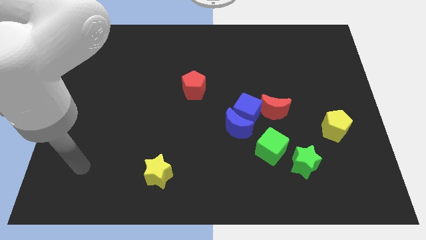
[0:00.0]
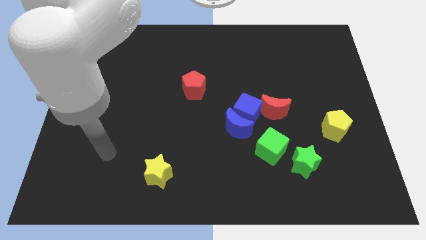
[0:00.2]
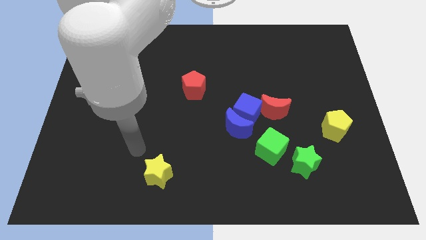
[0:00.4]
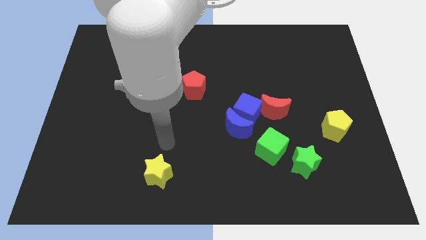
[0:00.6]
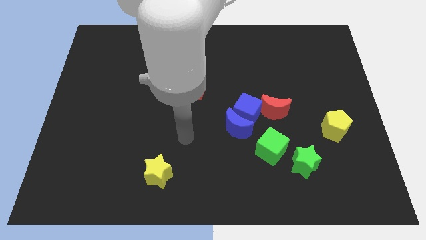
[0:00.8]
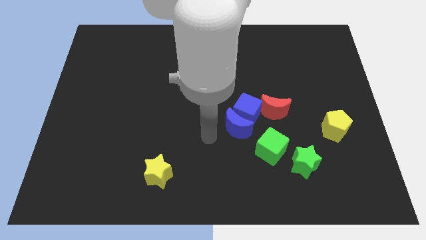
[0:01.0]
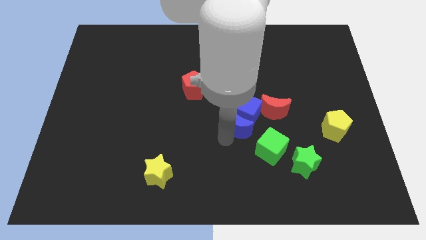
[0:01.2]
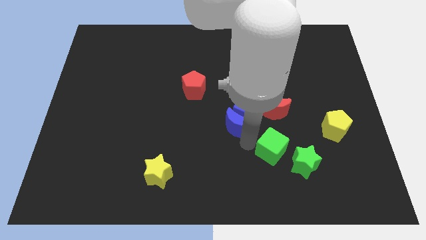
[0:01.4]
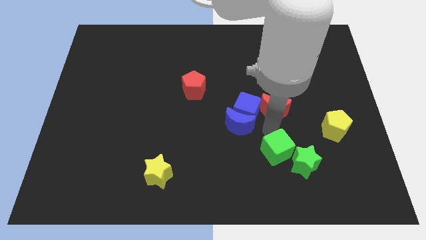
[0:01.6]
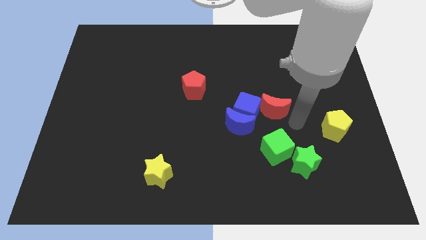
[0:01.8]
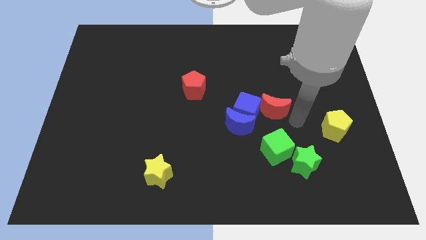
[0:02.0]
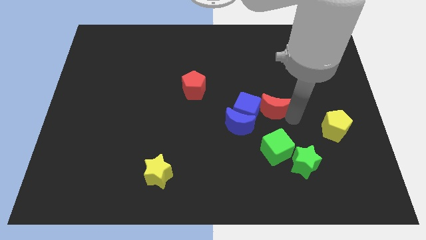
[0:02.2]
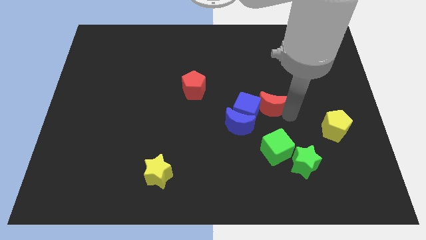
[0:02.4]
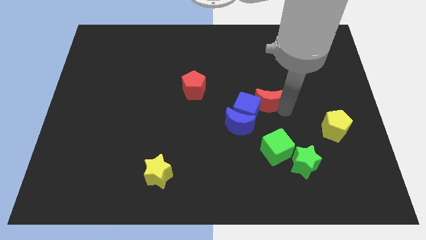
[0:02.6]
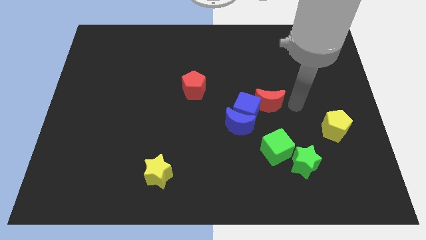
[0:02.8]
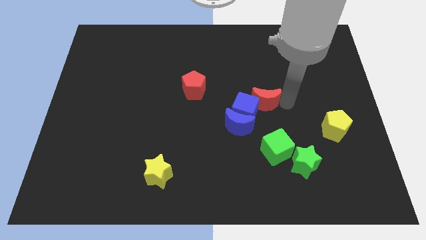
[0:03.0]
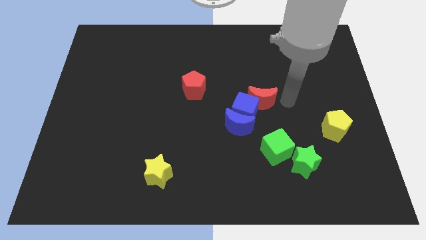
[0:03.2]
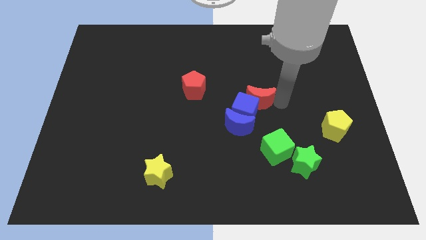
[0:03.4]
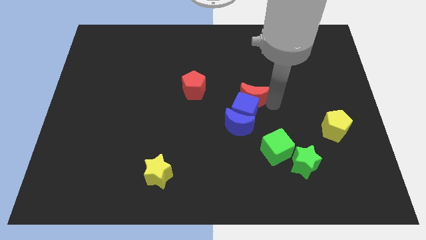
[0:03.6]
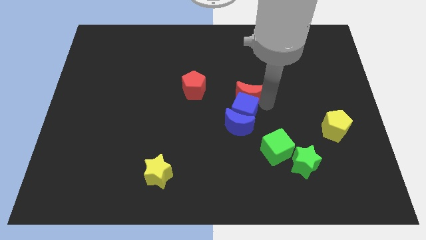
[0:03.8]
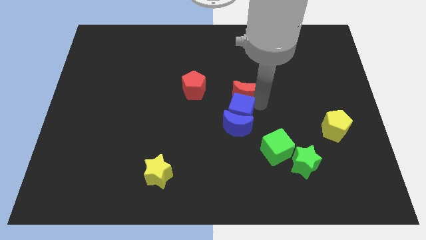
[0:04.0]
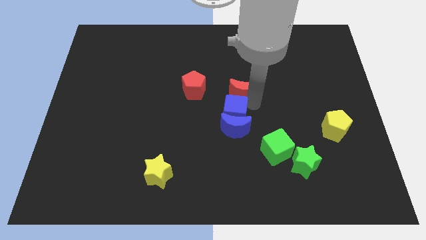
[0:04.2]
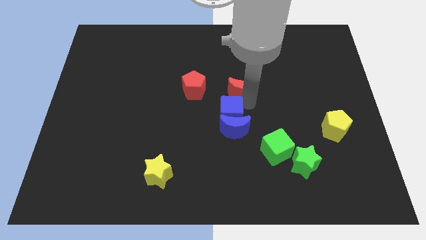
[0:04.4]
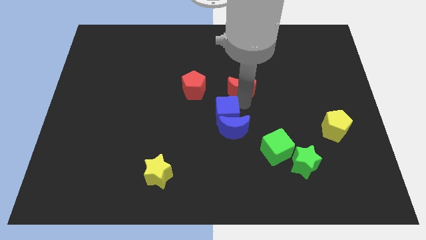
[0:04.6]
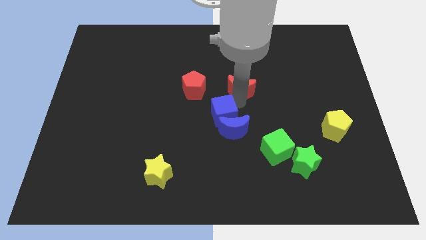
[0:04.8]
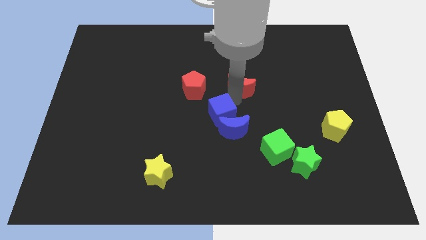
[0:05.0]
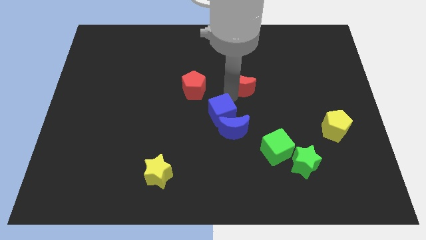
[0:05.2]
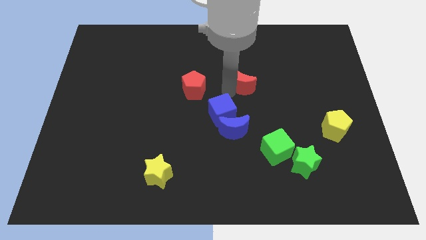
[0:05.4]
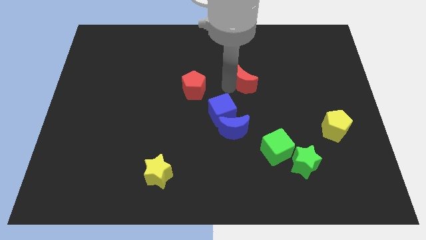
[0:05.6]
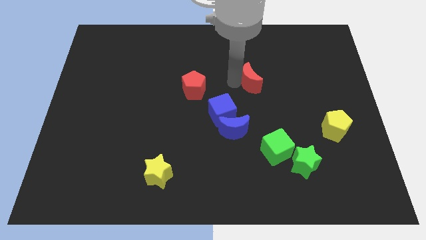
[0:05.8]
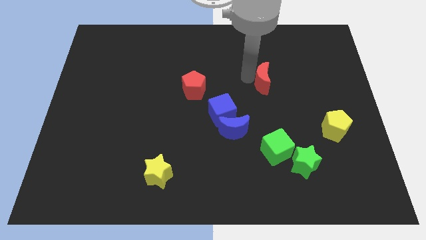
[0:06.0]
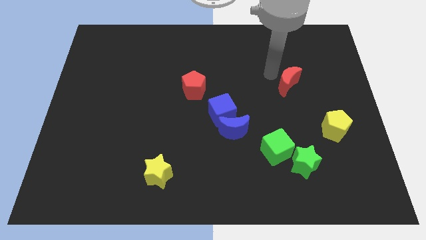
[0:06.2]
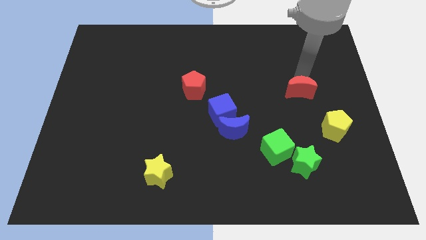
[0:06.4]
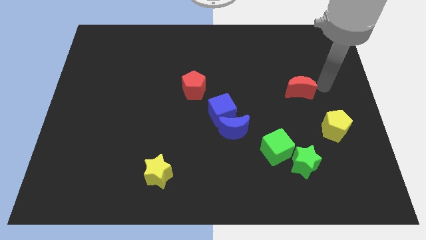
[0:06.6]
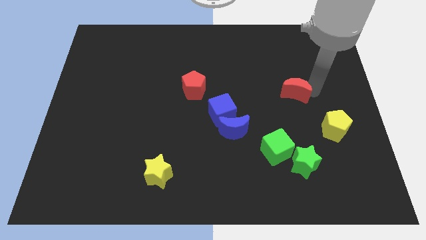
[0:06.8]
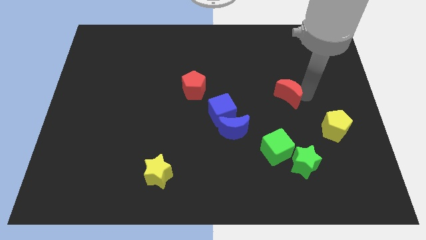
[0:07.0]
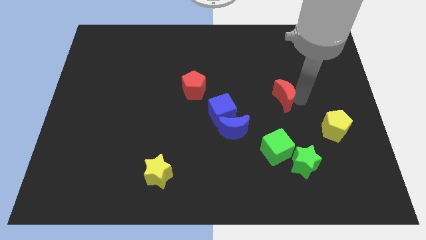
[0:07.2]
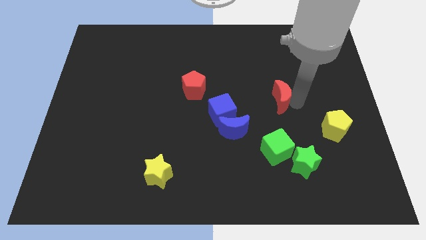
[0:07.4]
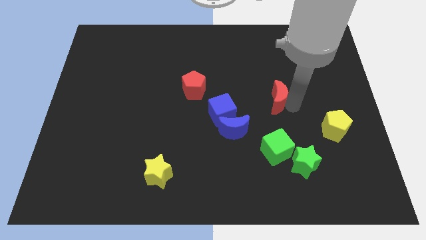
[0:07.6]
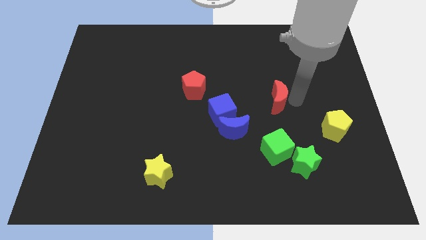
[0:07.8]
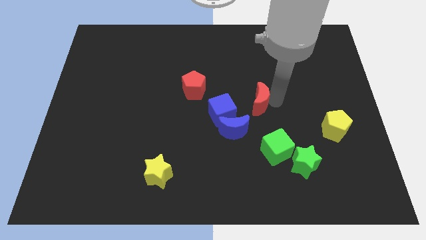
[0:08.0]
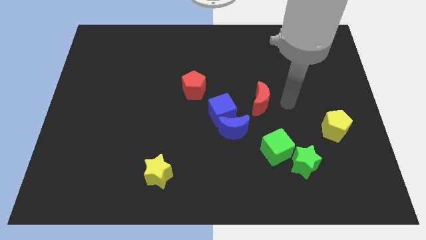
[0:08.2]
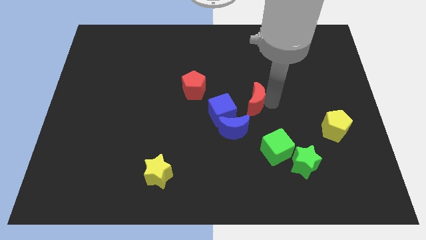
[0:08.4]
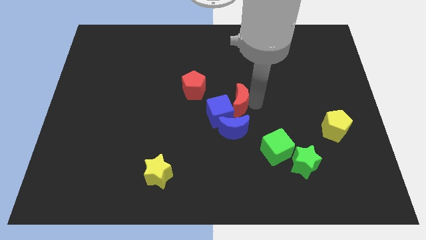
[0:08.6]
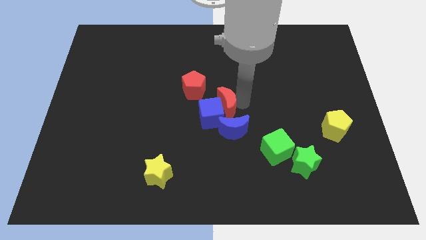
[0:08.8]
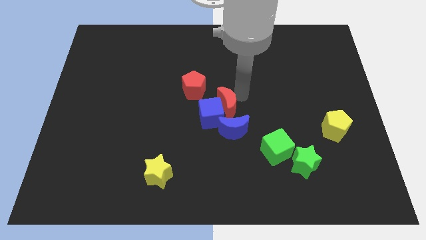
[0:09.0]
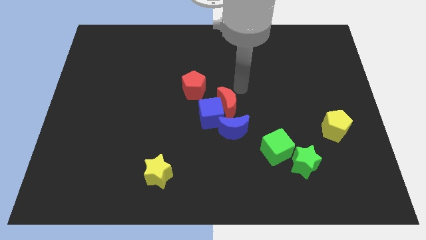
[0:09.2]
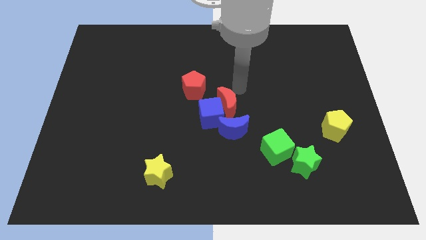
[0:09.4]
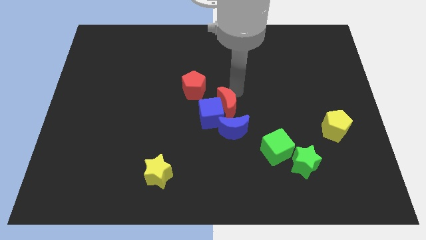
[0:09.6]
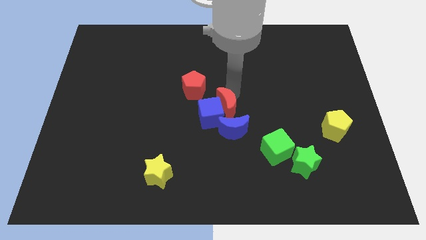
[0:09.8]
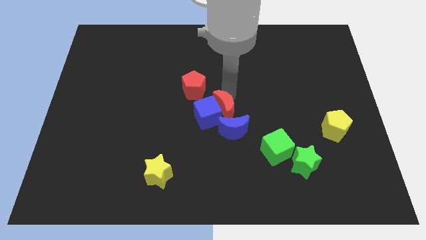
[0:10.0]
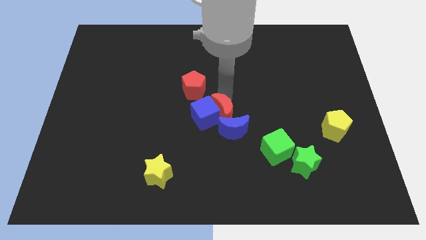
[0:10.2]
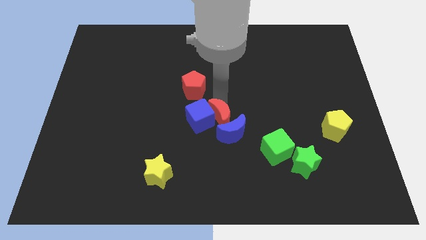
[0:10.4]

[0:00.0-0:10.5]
slide the red moon down and then to the left a little

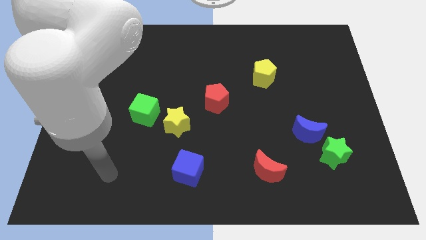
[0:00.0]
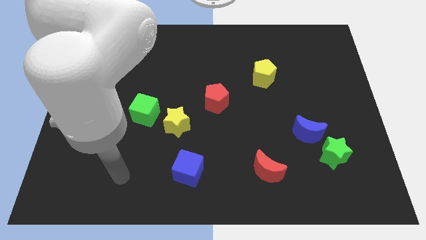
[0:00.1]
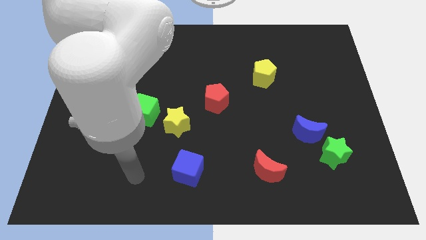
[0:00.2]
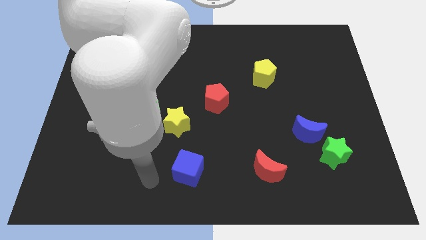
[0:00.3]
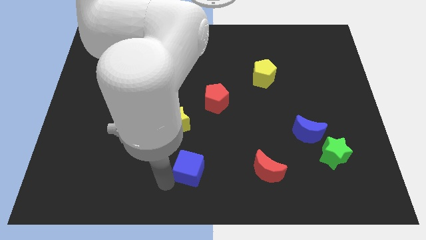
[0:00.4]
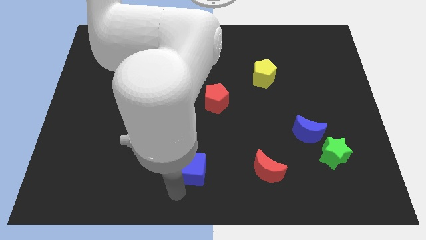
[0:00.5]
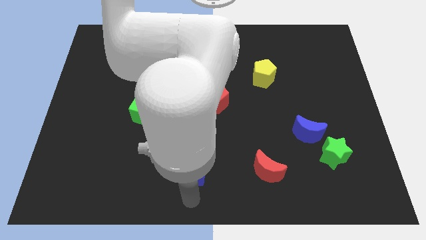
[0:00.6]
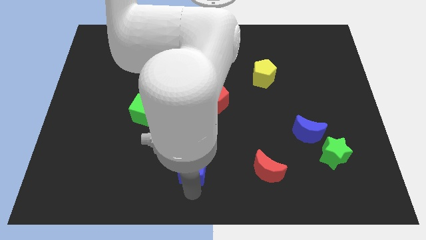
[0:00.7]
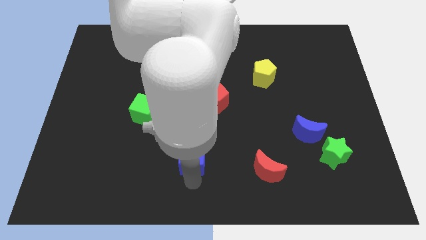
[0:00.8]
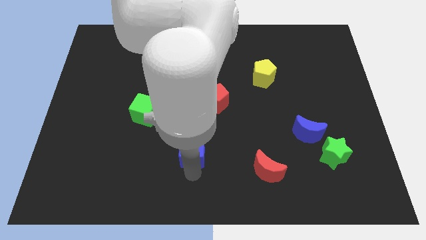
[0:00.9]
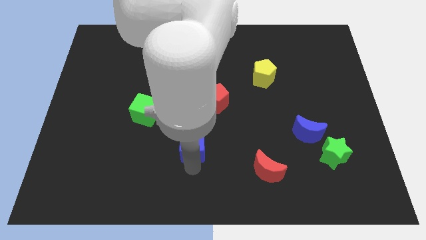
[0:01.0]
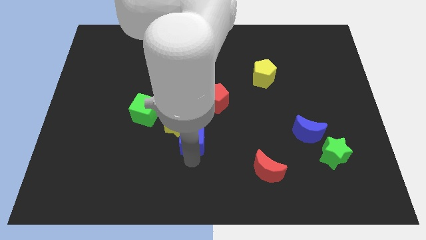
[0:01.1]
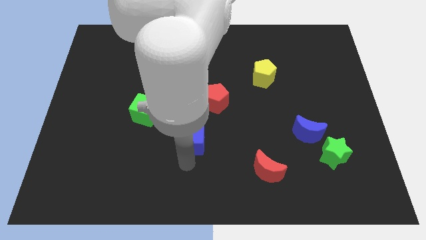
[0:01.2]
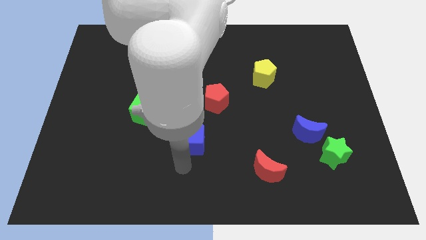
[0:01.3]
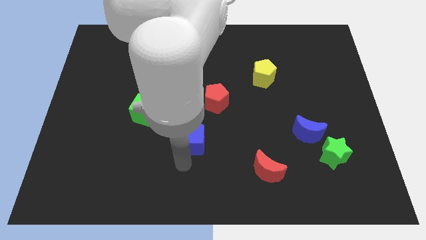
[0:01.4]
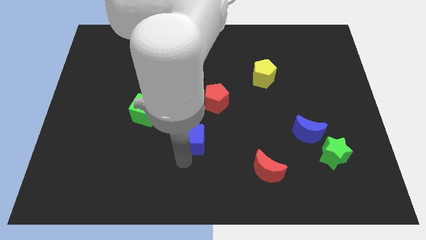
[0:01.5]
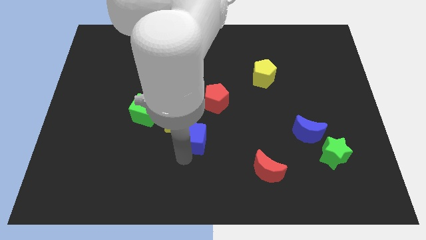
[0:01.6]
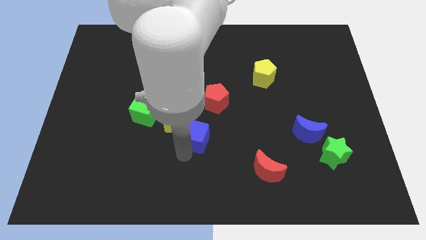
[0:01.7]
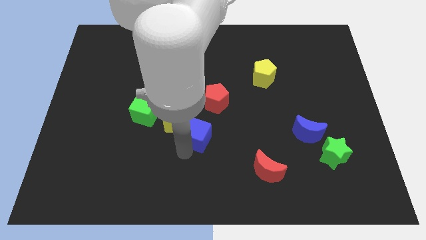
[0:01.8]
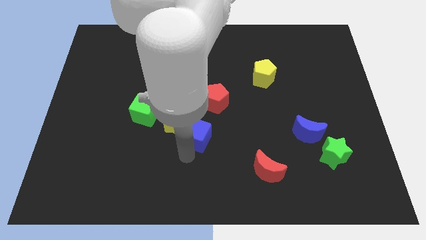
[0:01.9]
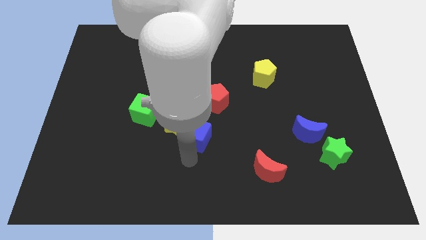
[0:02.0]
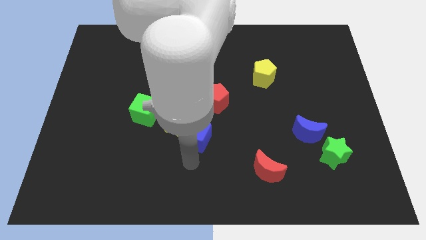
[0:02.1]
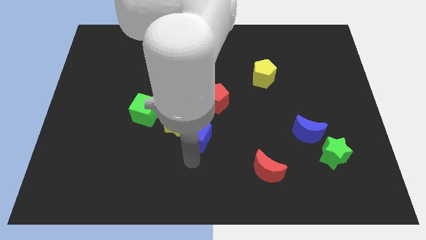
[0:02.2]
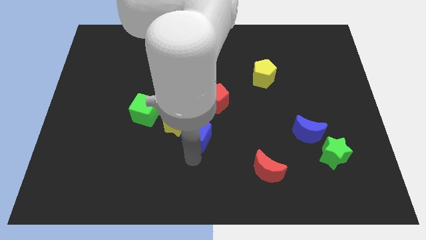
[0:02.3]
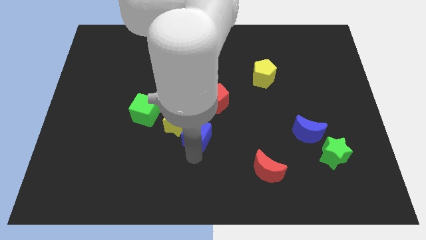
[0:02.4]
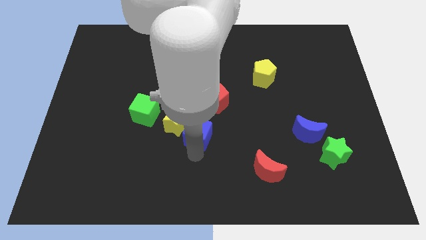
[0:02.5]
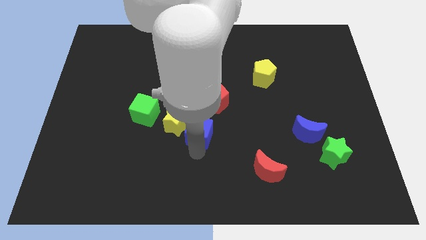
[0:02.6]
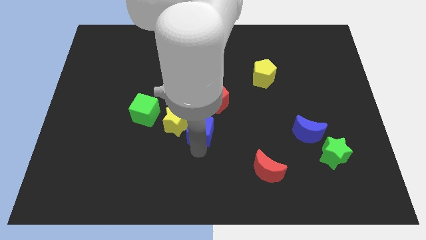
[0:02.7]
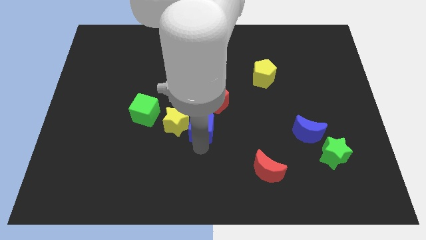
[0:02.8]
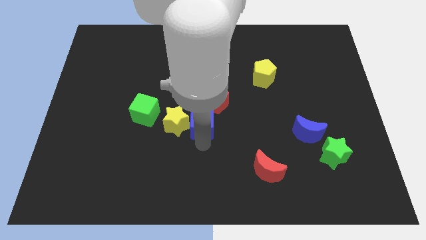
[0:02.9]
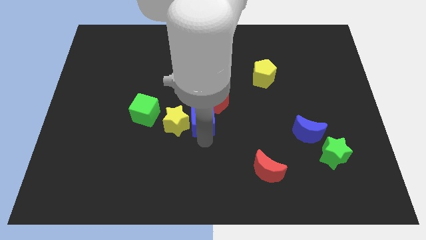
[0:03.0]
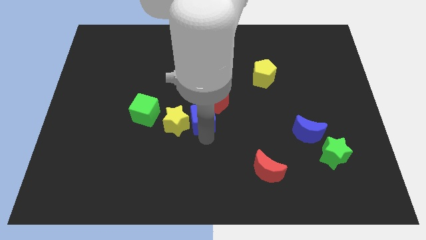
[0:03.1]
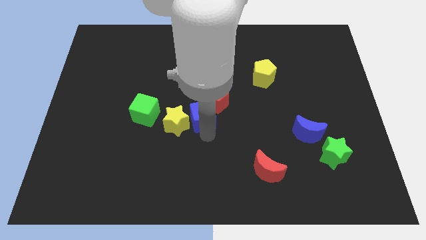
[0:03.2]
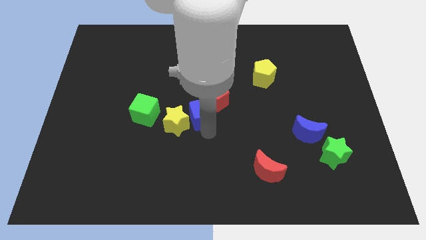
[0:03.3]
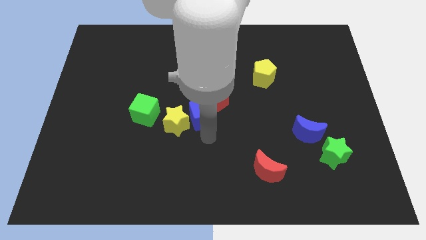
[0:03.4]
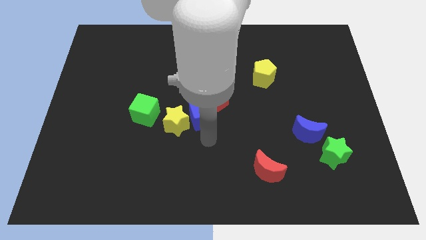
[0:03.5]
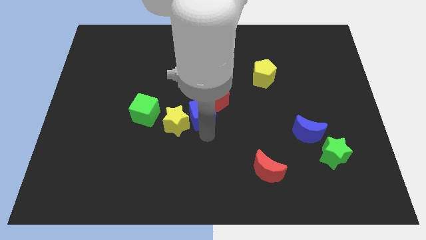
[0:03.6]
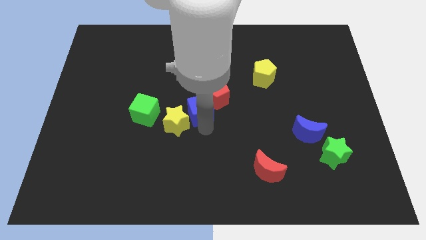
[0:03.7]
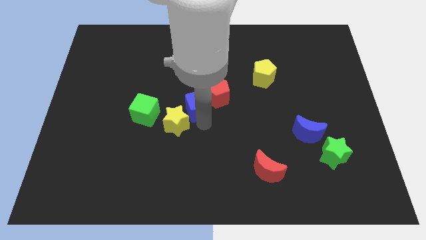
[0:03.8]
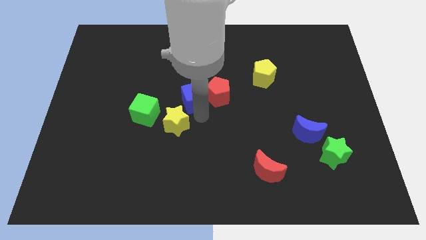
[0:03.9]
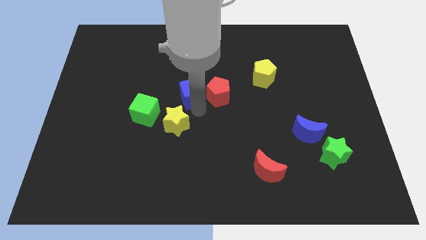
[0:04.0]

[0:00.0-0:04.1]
move the blue cube upwards
